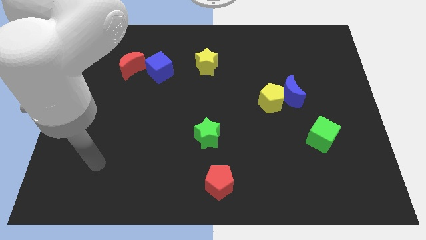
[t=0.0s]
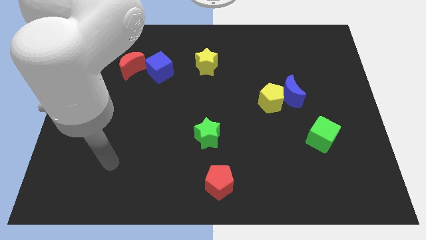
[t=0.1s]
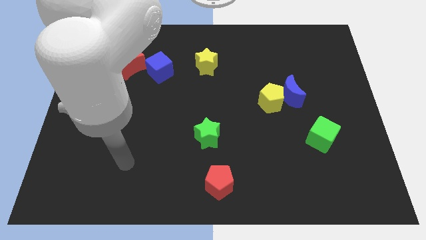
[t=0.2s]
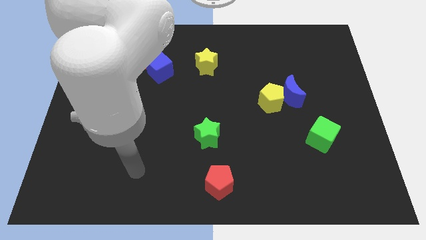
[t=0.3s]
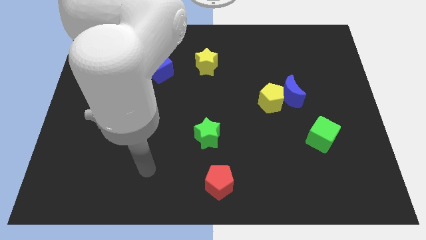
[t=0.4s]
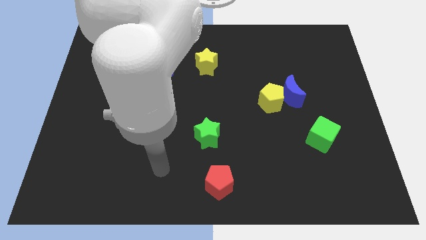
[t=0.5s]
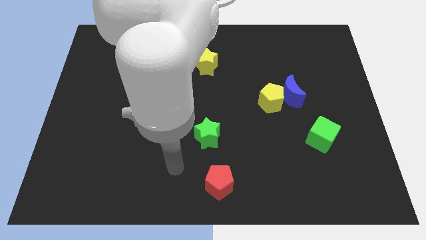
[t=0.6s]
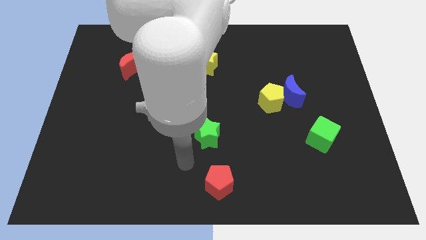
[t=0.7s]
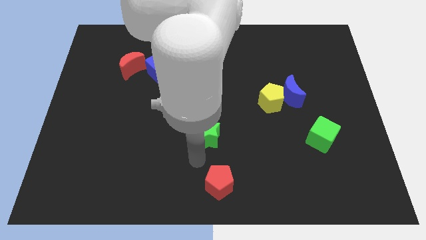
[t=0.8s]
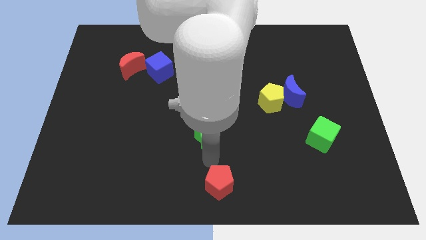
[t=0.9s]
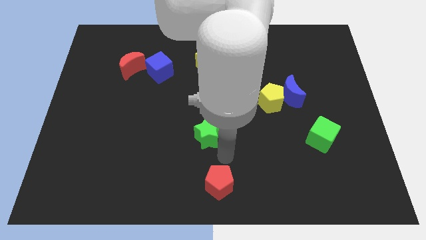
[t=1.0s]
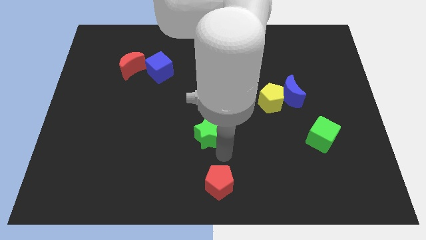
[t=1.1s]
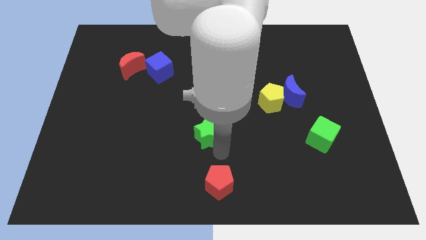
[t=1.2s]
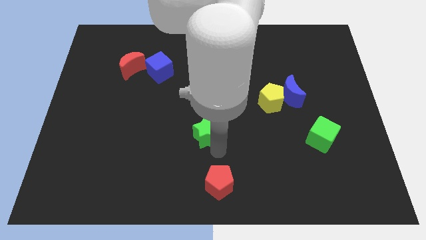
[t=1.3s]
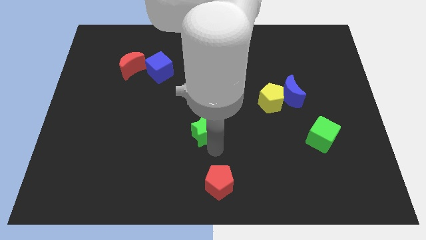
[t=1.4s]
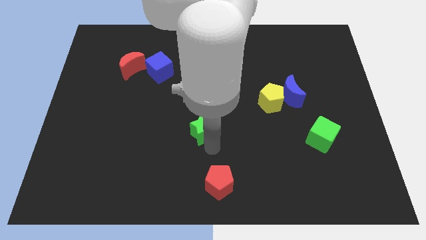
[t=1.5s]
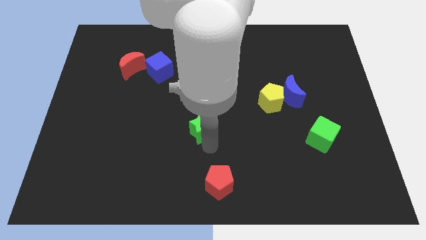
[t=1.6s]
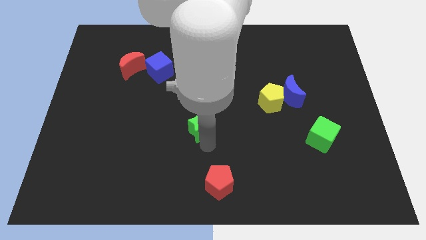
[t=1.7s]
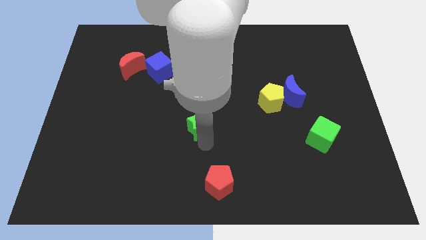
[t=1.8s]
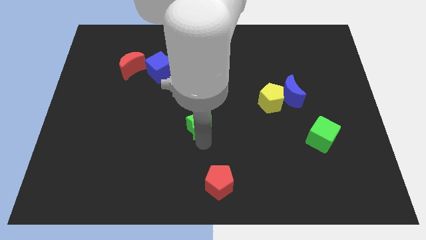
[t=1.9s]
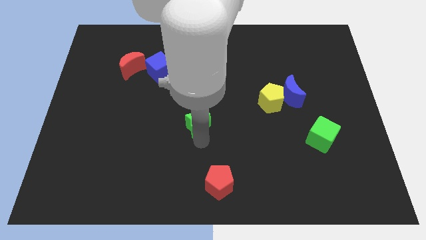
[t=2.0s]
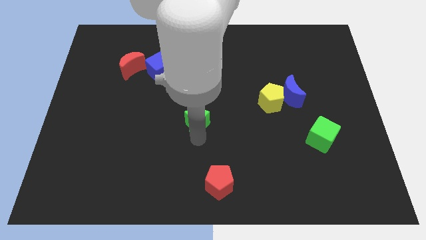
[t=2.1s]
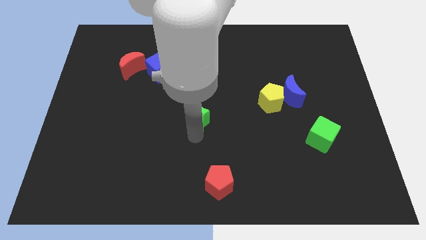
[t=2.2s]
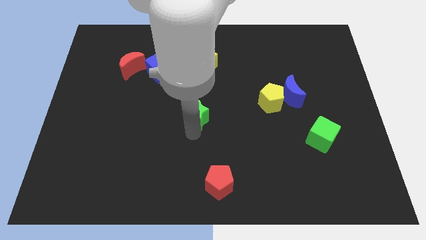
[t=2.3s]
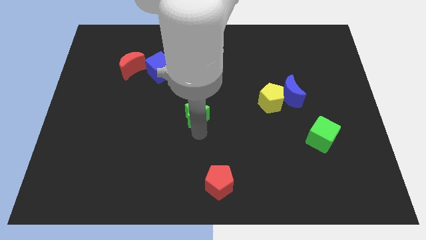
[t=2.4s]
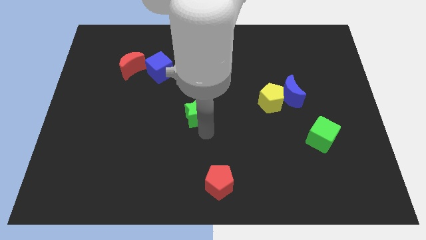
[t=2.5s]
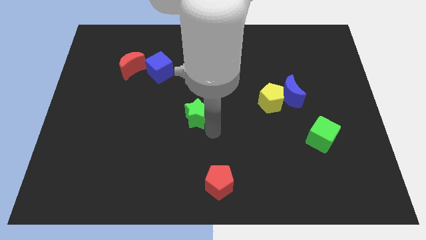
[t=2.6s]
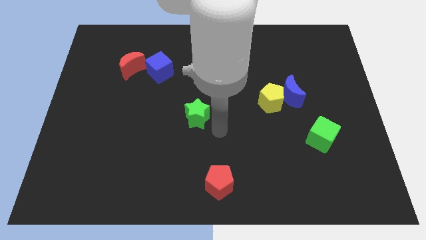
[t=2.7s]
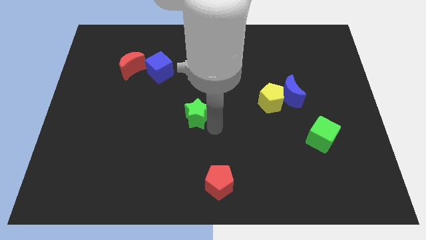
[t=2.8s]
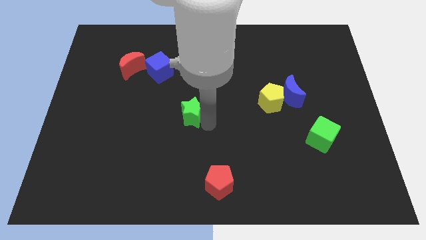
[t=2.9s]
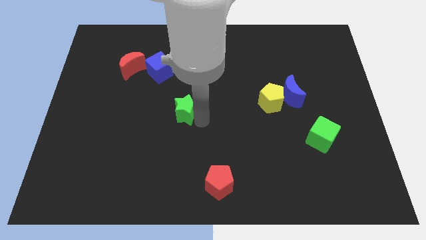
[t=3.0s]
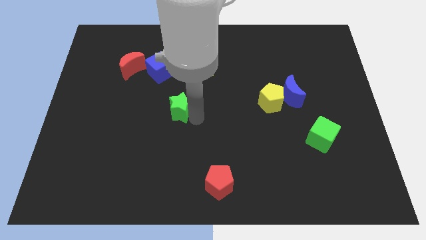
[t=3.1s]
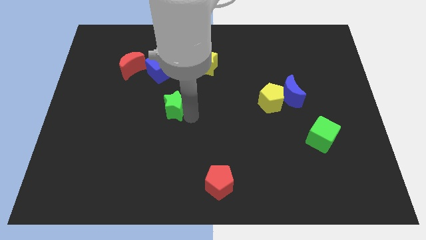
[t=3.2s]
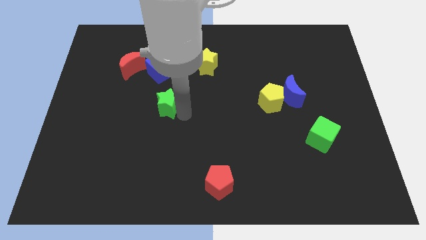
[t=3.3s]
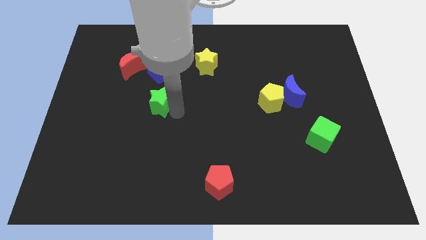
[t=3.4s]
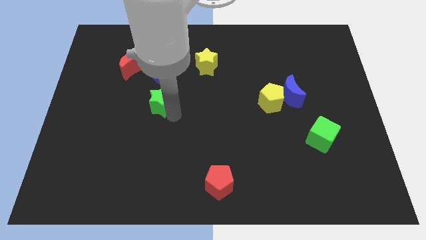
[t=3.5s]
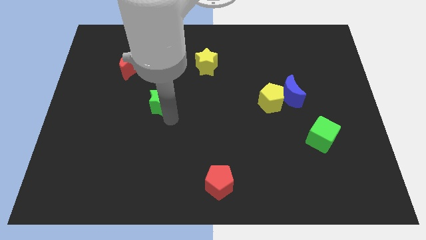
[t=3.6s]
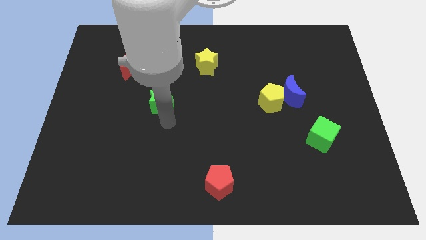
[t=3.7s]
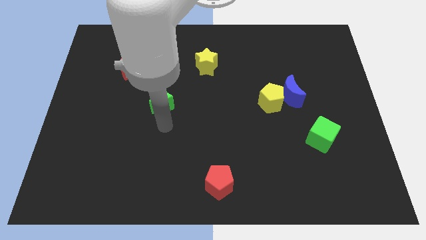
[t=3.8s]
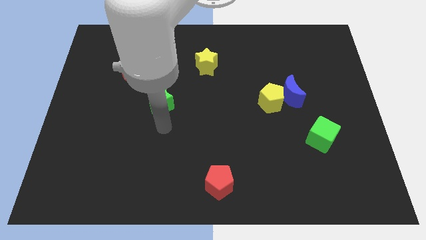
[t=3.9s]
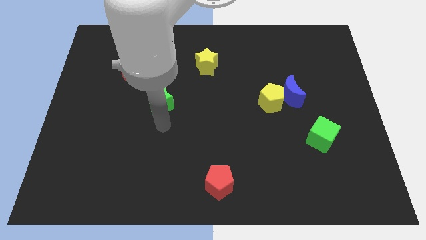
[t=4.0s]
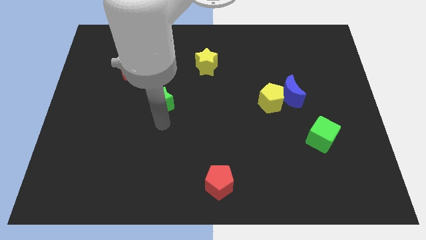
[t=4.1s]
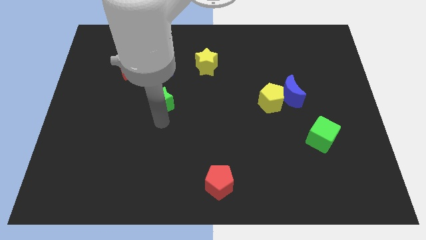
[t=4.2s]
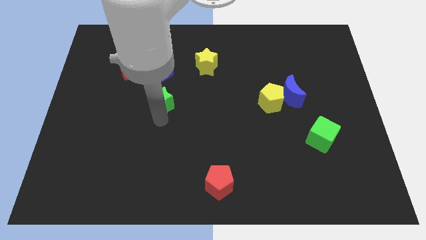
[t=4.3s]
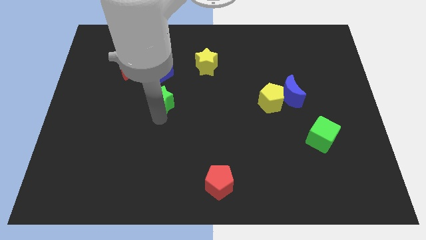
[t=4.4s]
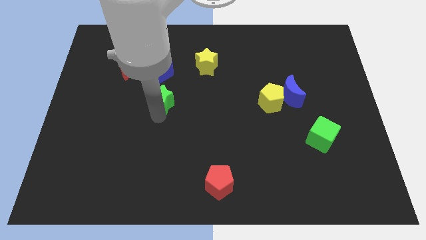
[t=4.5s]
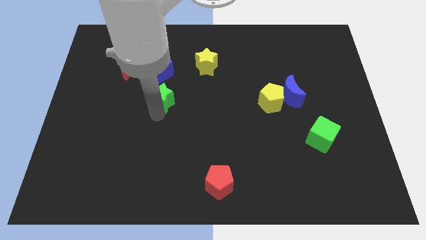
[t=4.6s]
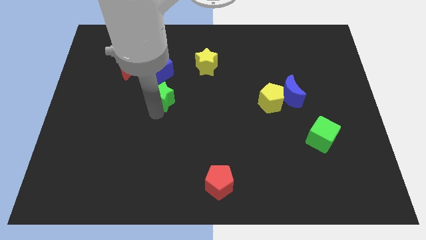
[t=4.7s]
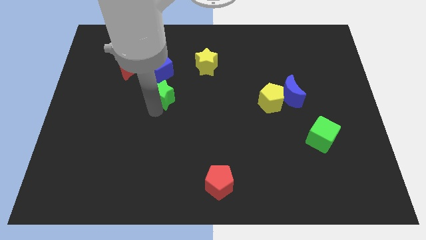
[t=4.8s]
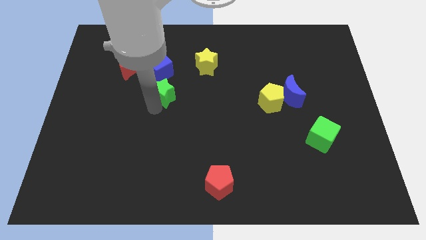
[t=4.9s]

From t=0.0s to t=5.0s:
move the green star to the bottom right of the red moon

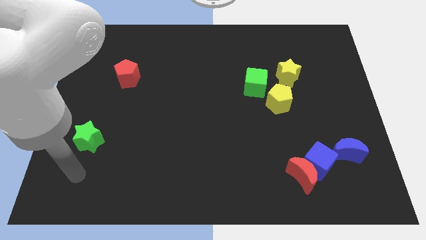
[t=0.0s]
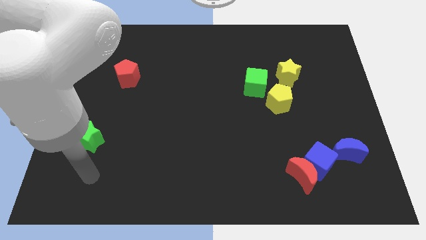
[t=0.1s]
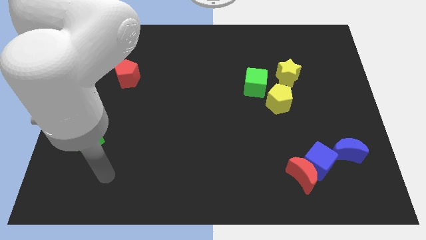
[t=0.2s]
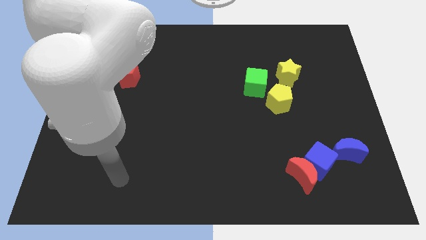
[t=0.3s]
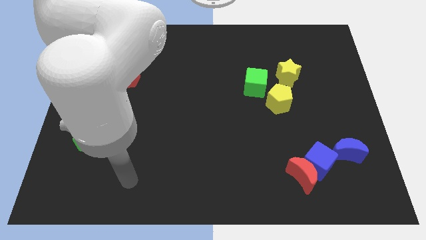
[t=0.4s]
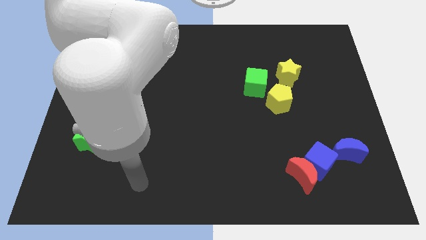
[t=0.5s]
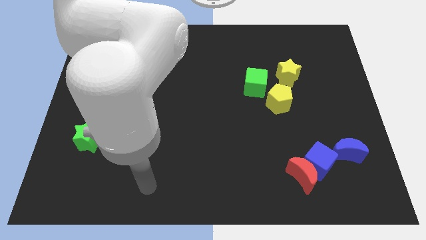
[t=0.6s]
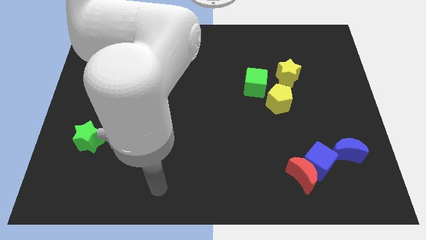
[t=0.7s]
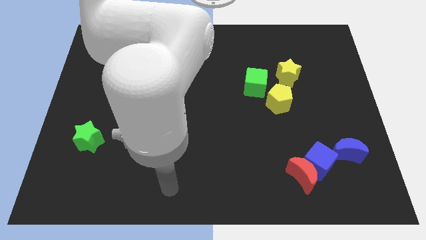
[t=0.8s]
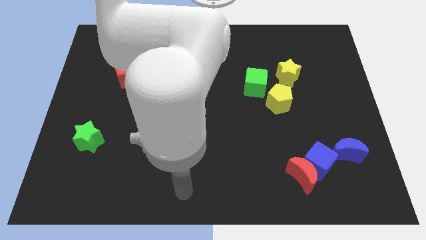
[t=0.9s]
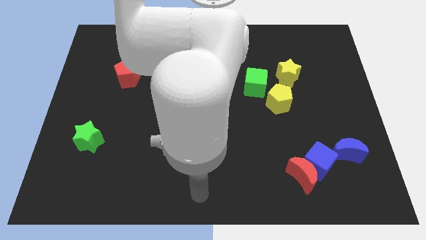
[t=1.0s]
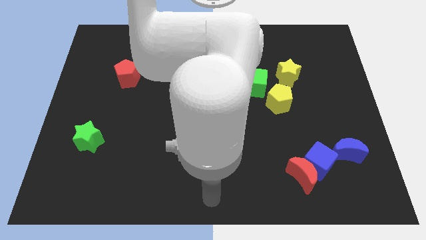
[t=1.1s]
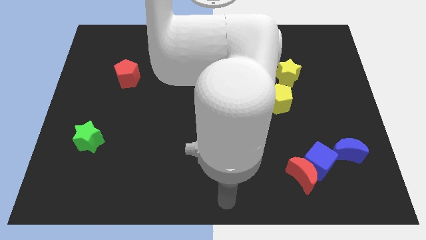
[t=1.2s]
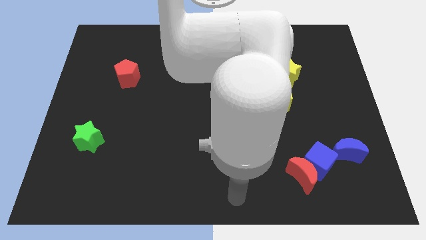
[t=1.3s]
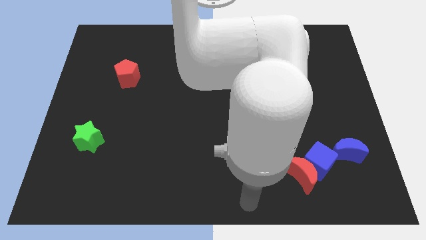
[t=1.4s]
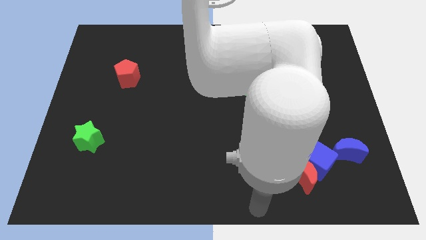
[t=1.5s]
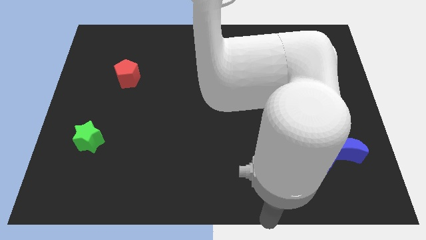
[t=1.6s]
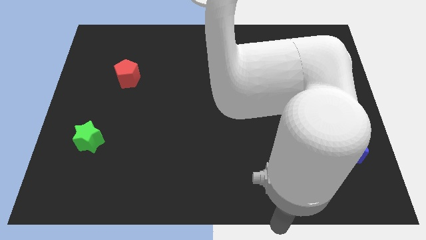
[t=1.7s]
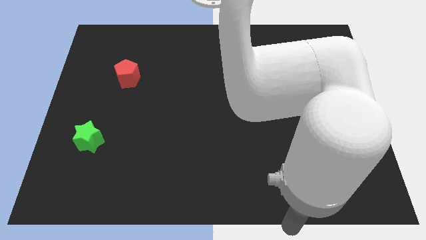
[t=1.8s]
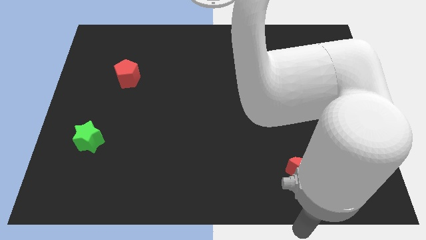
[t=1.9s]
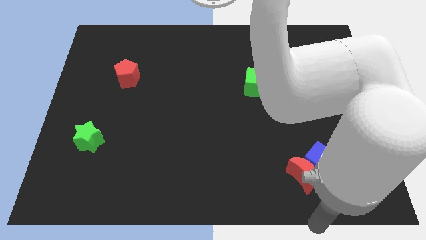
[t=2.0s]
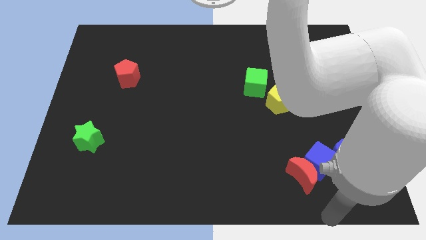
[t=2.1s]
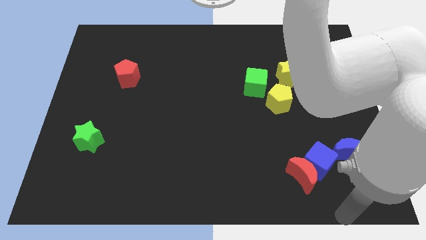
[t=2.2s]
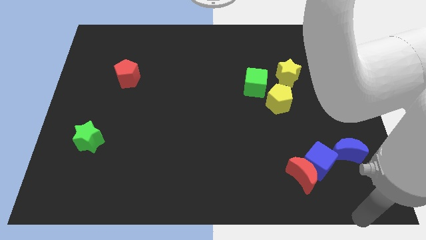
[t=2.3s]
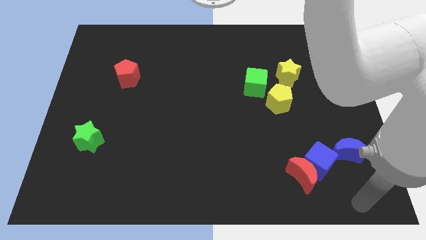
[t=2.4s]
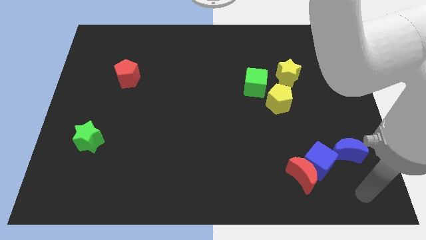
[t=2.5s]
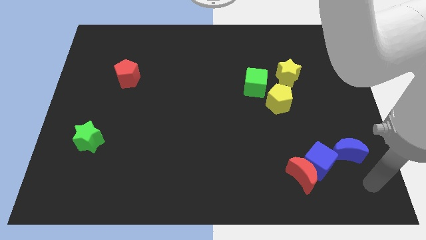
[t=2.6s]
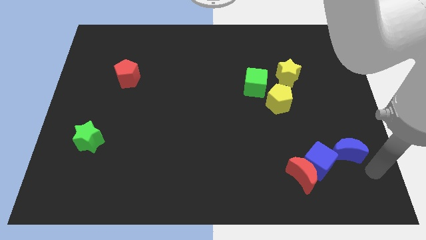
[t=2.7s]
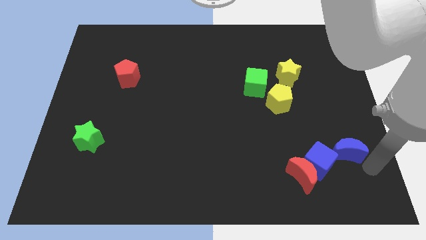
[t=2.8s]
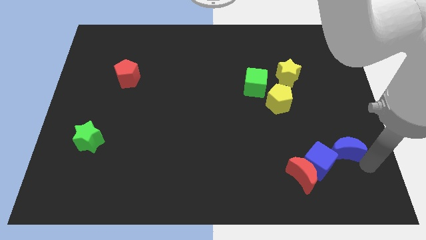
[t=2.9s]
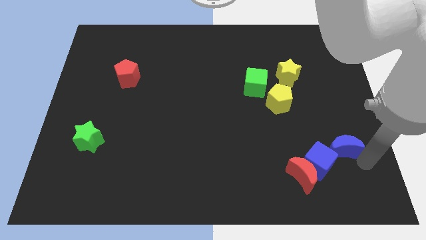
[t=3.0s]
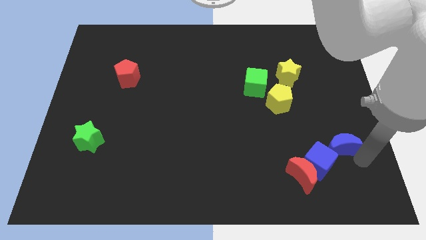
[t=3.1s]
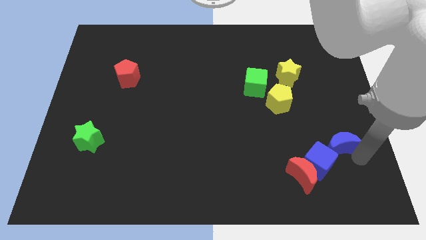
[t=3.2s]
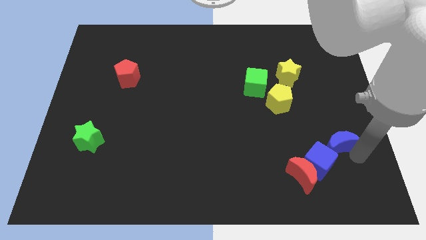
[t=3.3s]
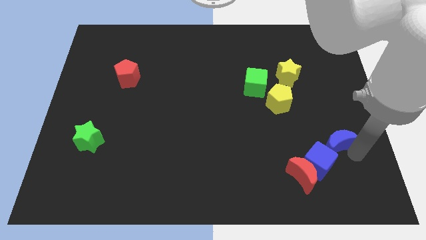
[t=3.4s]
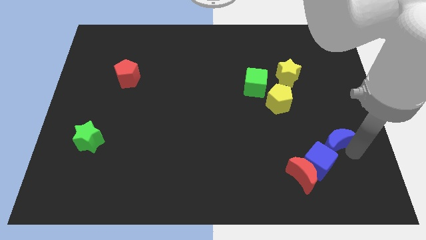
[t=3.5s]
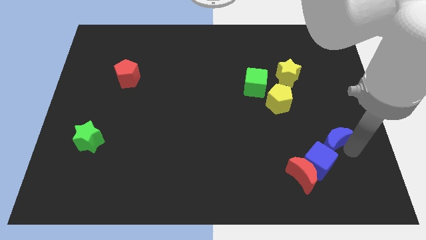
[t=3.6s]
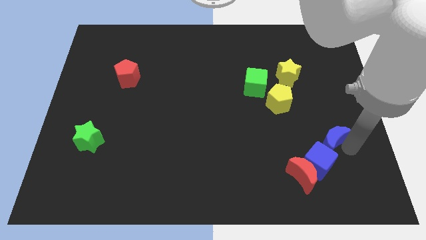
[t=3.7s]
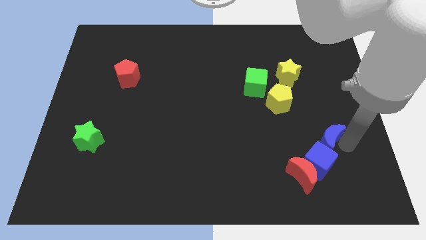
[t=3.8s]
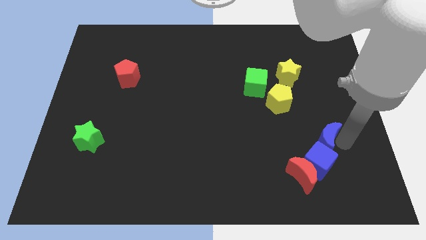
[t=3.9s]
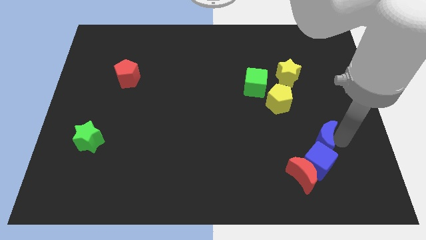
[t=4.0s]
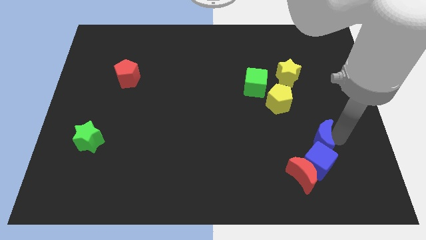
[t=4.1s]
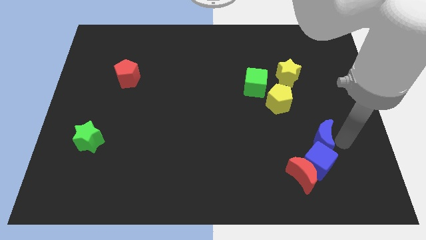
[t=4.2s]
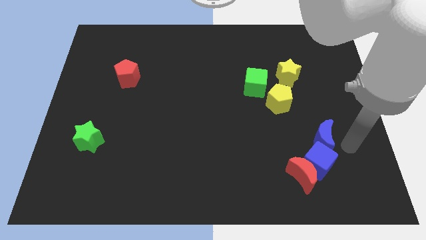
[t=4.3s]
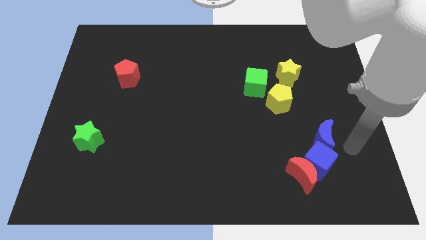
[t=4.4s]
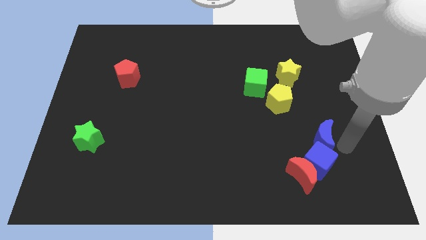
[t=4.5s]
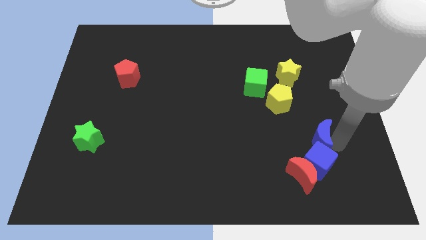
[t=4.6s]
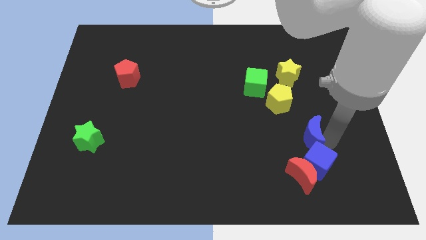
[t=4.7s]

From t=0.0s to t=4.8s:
move the blue moon to the top of the red moon
